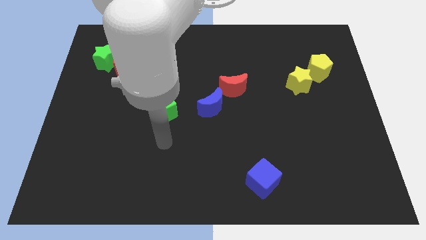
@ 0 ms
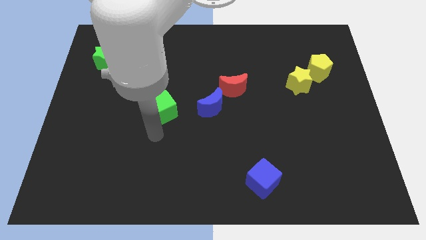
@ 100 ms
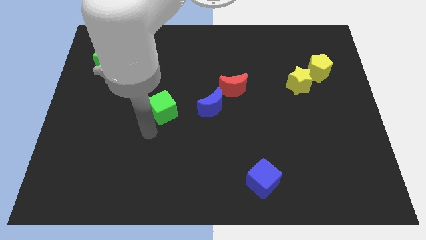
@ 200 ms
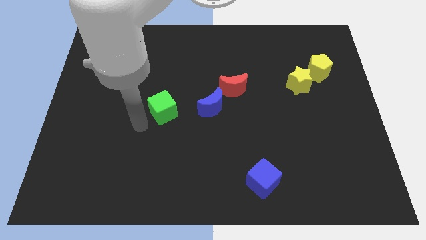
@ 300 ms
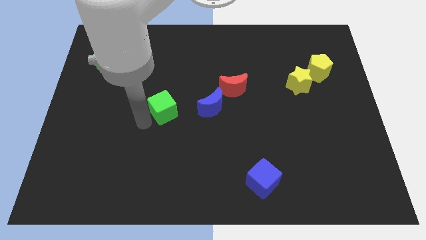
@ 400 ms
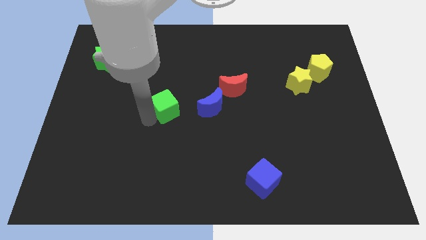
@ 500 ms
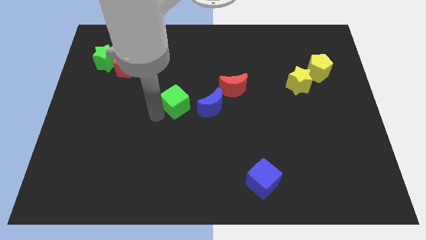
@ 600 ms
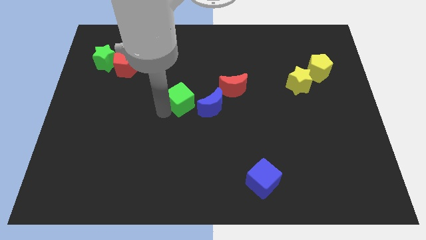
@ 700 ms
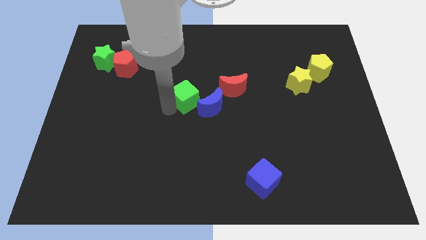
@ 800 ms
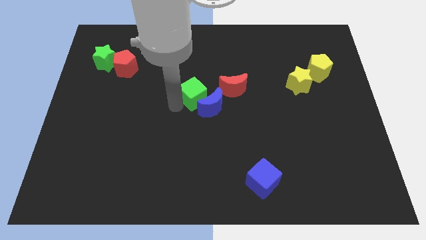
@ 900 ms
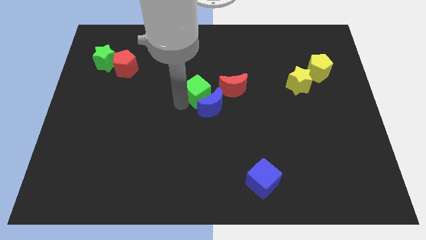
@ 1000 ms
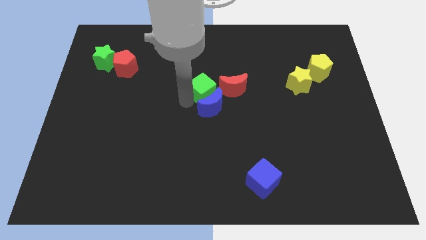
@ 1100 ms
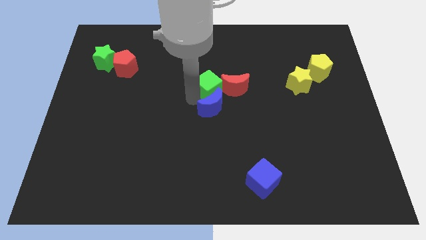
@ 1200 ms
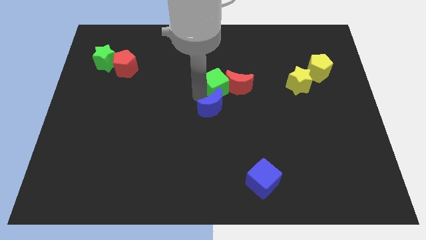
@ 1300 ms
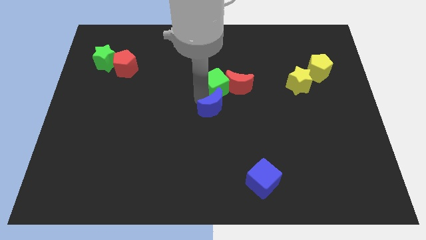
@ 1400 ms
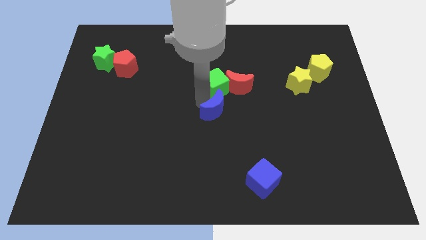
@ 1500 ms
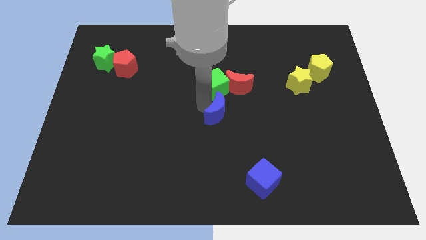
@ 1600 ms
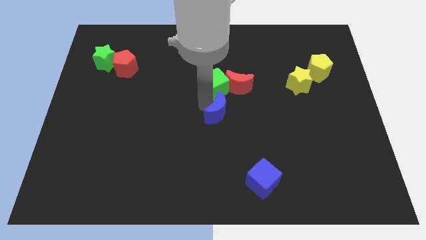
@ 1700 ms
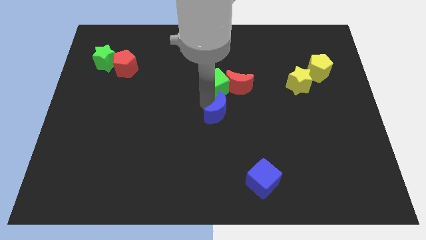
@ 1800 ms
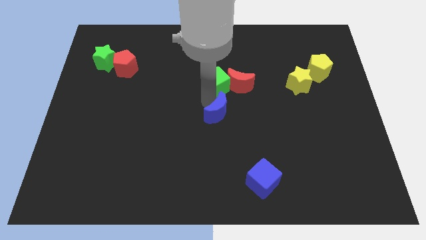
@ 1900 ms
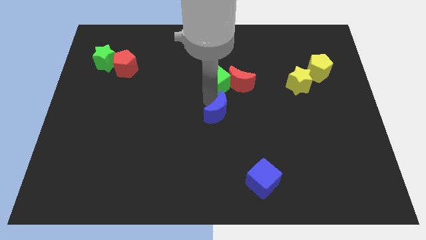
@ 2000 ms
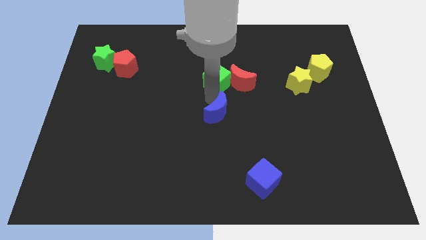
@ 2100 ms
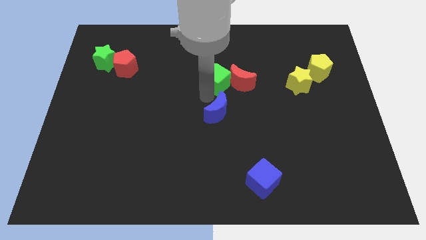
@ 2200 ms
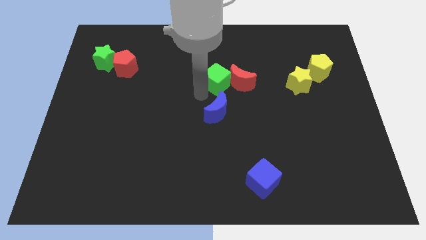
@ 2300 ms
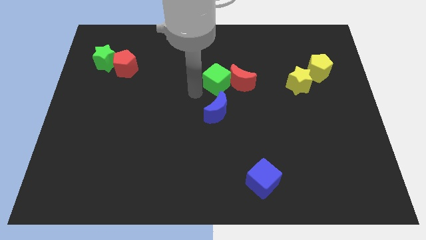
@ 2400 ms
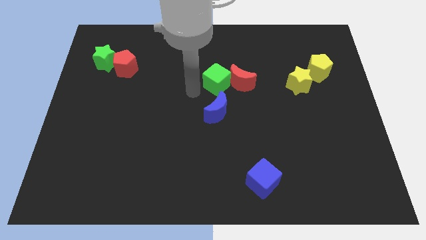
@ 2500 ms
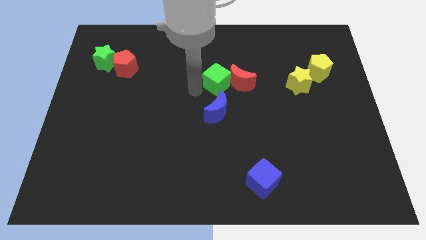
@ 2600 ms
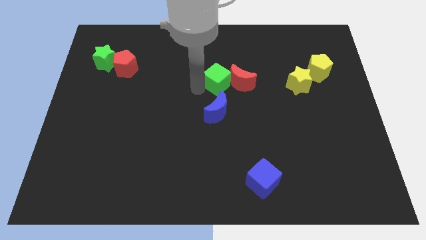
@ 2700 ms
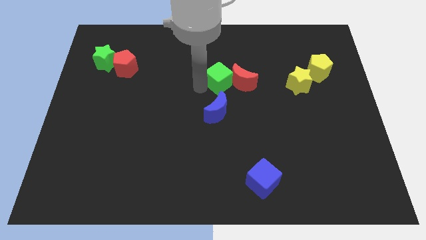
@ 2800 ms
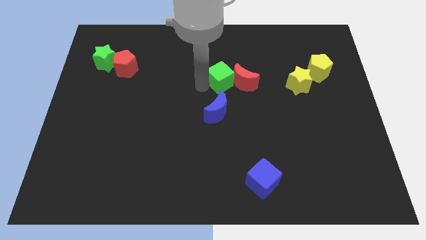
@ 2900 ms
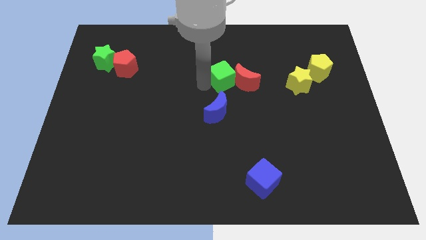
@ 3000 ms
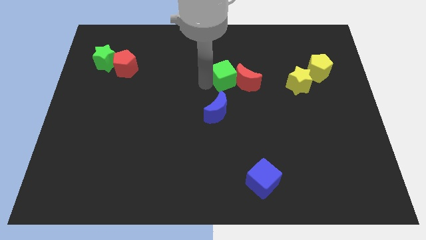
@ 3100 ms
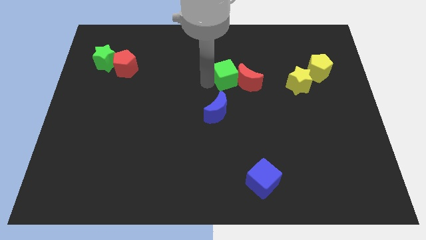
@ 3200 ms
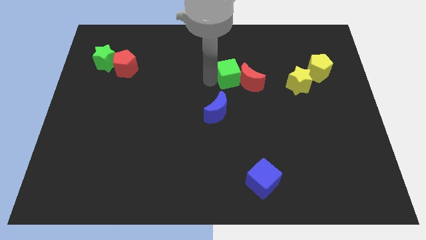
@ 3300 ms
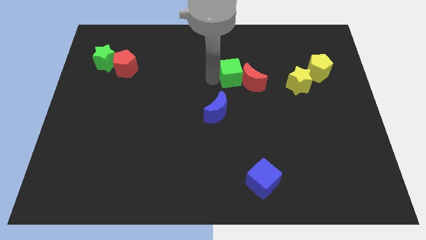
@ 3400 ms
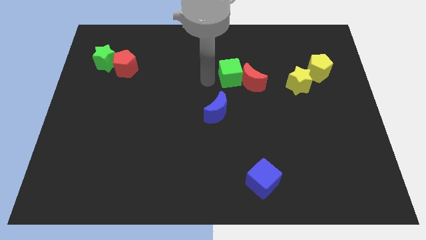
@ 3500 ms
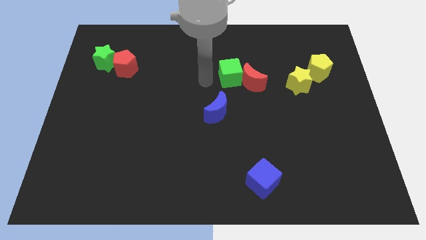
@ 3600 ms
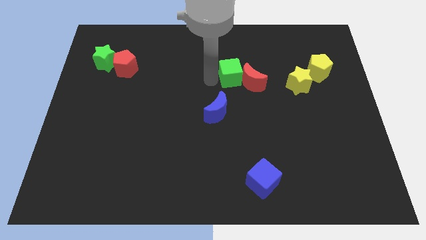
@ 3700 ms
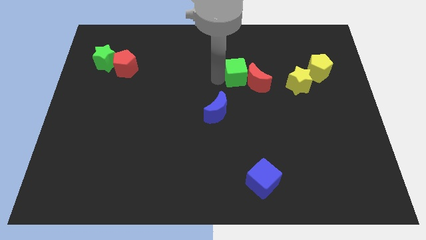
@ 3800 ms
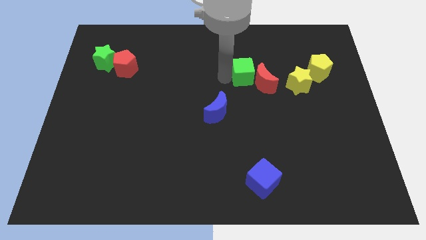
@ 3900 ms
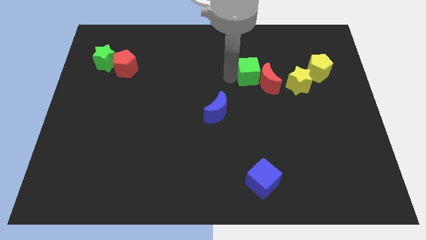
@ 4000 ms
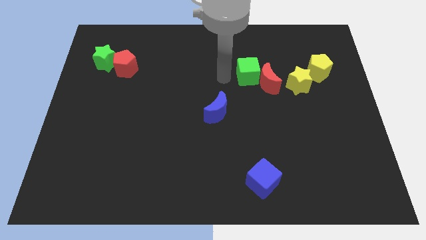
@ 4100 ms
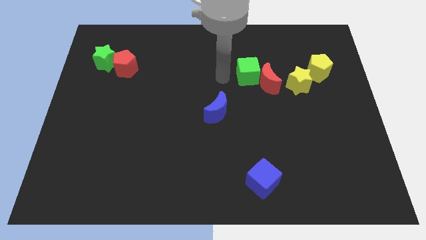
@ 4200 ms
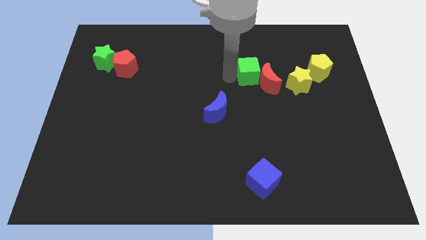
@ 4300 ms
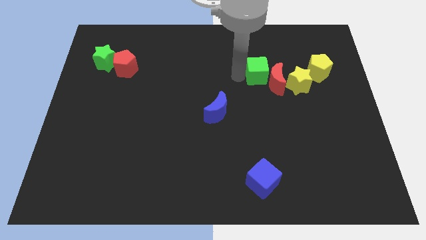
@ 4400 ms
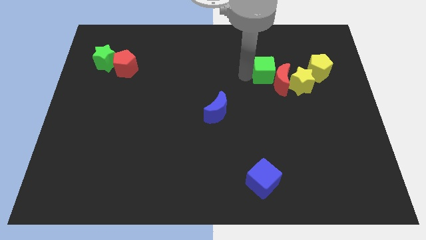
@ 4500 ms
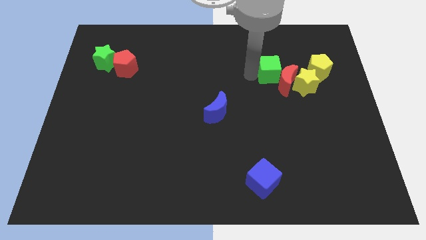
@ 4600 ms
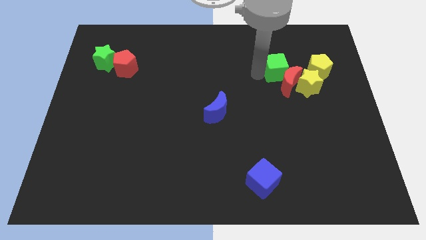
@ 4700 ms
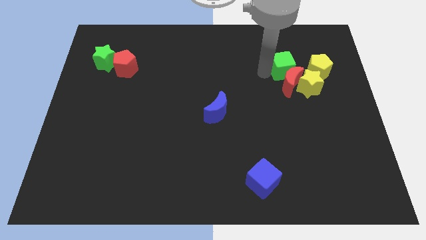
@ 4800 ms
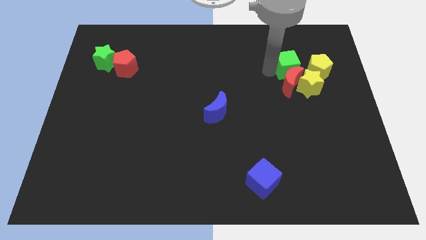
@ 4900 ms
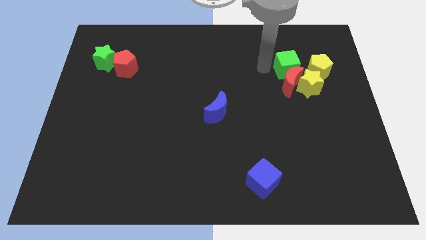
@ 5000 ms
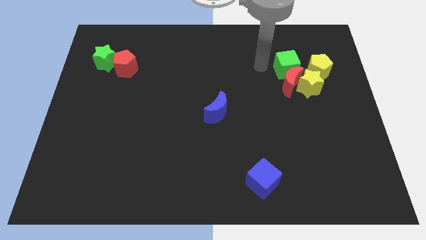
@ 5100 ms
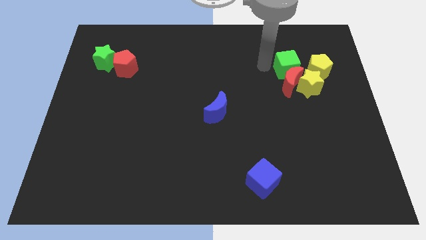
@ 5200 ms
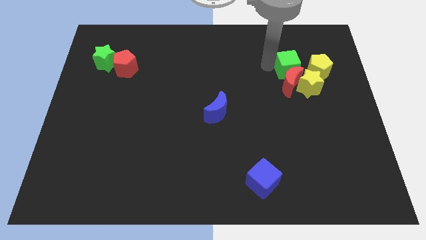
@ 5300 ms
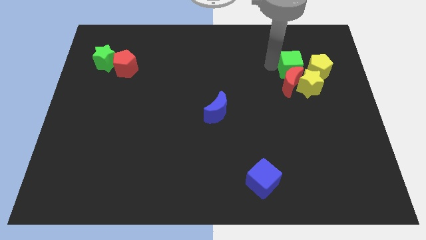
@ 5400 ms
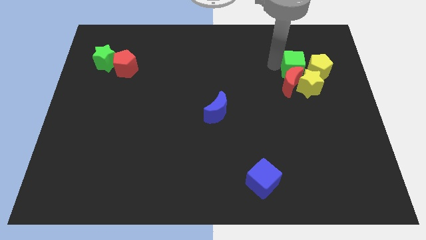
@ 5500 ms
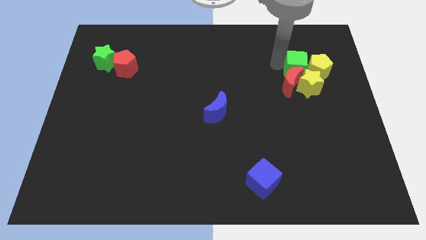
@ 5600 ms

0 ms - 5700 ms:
put the green cube close to the yellow pentagon

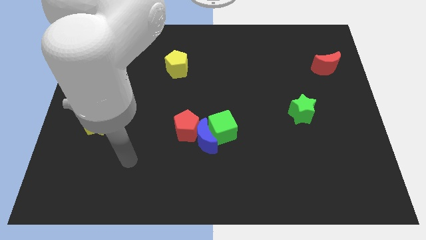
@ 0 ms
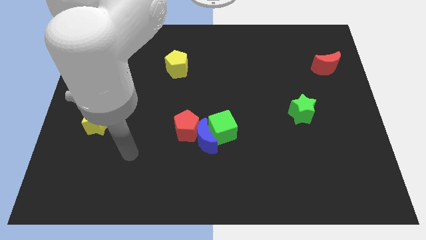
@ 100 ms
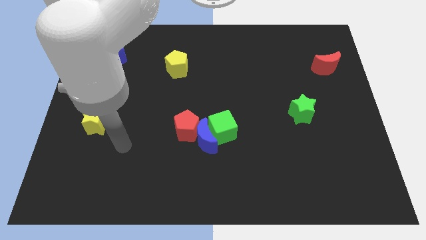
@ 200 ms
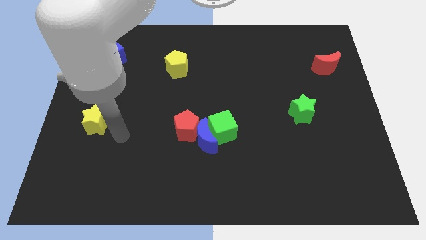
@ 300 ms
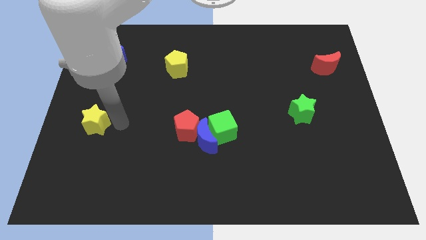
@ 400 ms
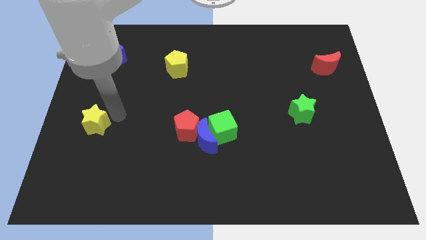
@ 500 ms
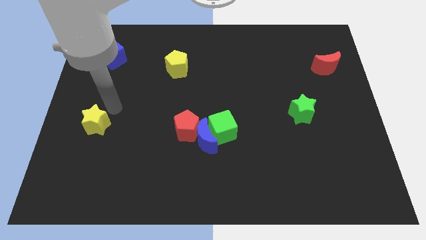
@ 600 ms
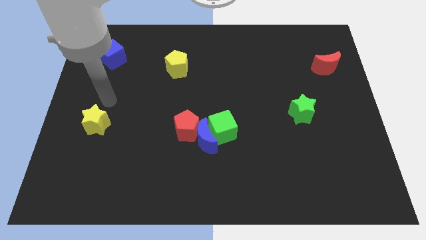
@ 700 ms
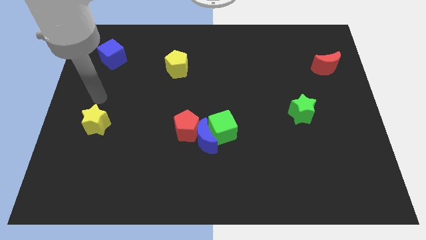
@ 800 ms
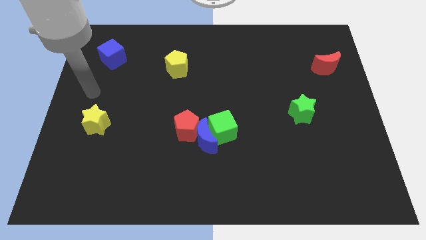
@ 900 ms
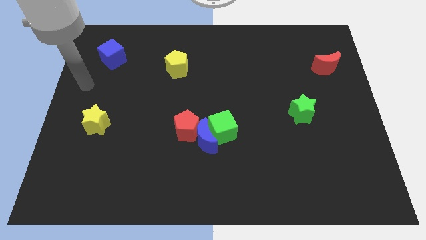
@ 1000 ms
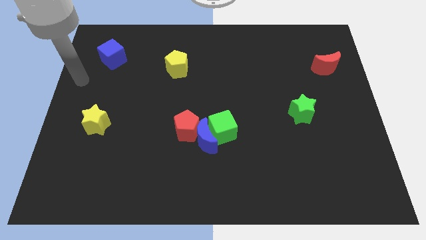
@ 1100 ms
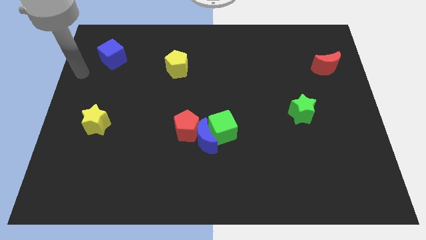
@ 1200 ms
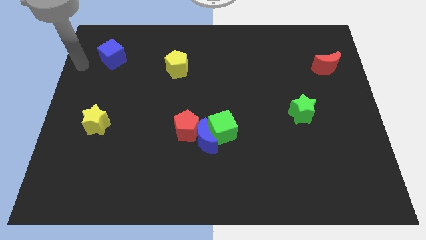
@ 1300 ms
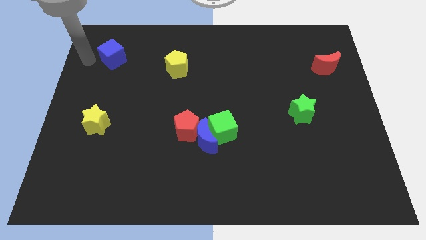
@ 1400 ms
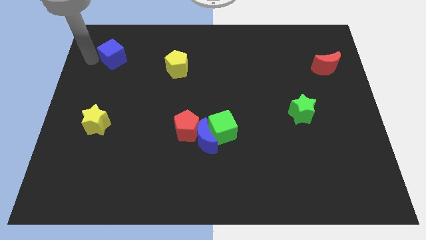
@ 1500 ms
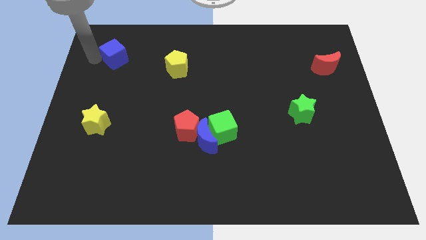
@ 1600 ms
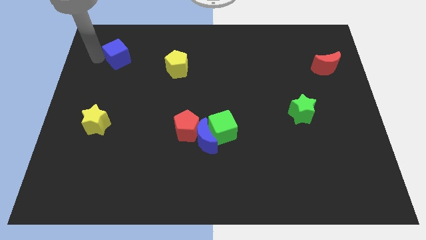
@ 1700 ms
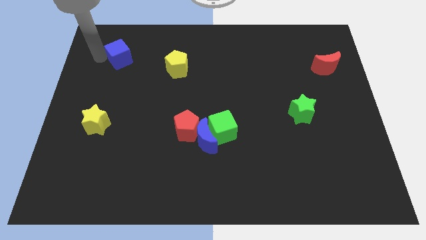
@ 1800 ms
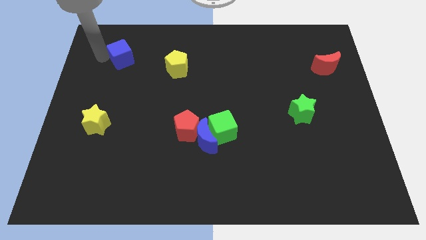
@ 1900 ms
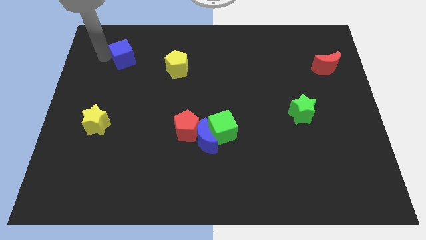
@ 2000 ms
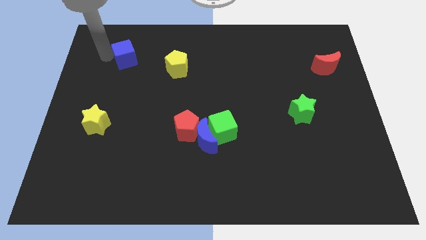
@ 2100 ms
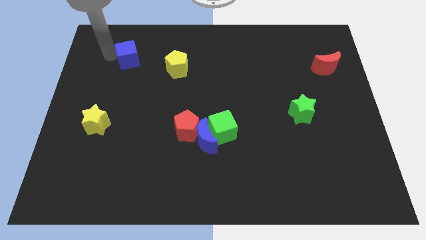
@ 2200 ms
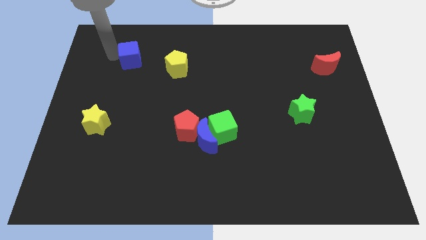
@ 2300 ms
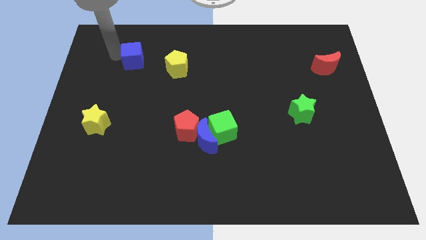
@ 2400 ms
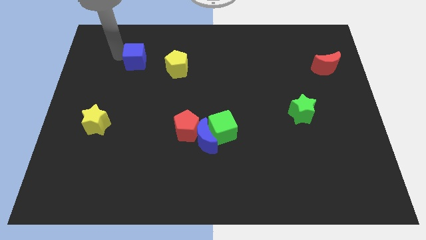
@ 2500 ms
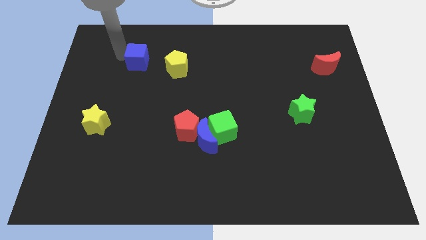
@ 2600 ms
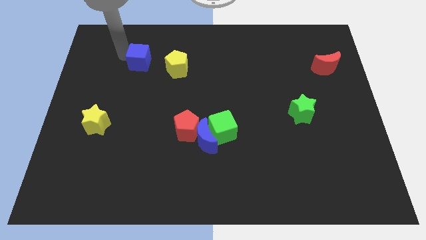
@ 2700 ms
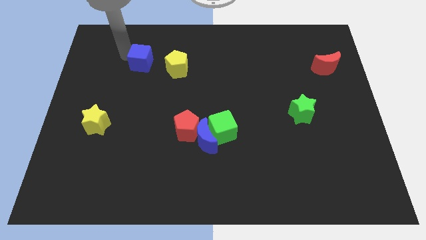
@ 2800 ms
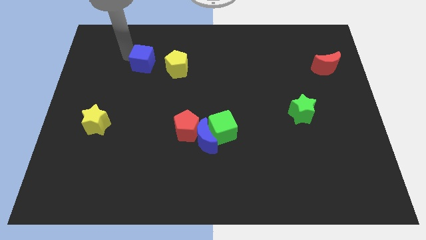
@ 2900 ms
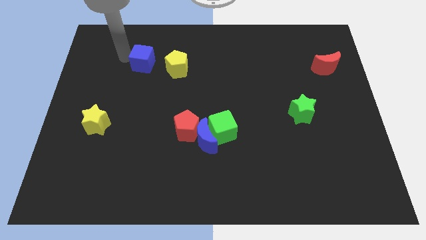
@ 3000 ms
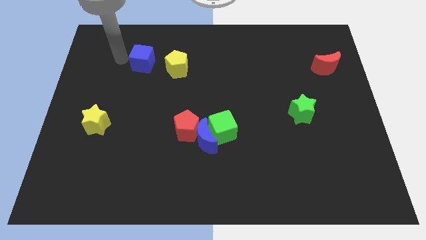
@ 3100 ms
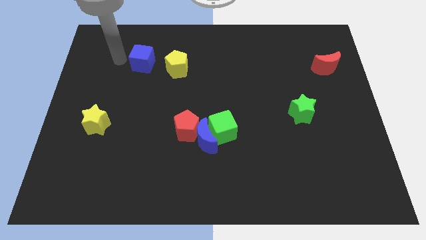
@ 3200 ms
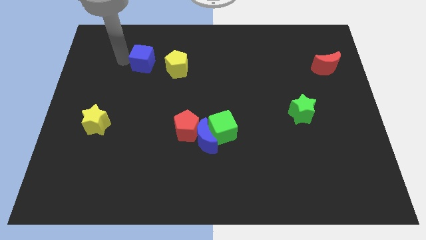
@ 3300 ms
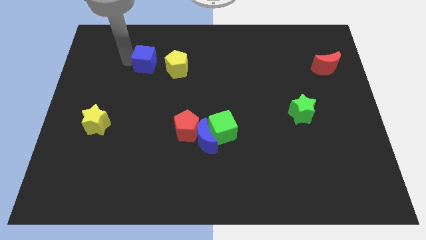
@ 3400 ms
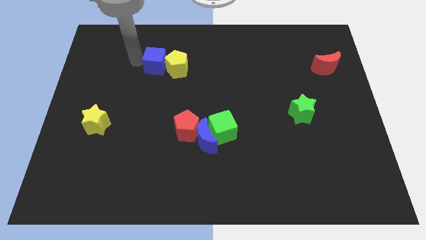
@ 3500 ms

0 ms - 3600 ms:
move the blue cube towards the yellow pentagon
